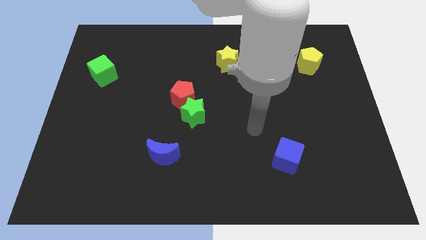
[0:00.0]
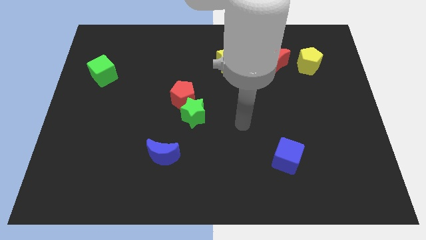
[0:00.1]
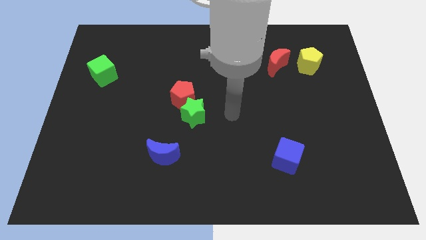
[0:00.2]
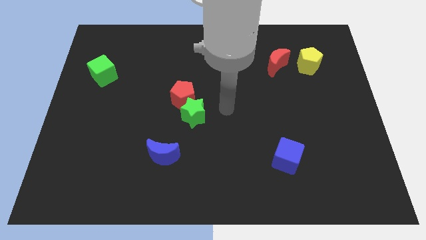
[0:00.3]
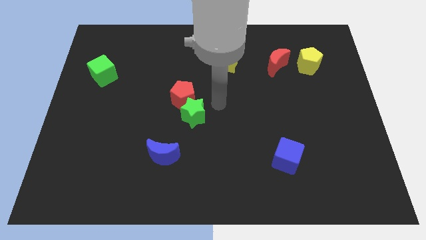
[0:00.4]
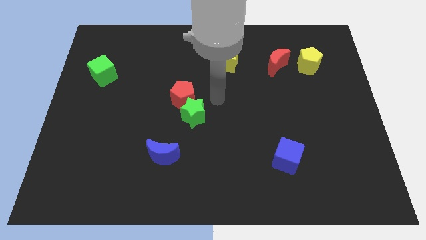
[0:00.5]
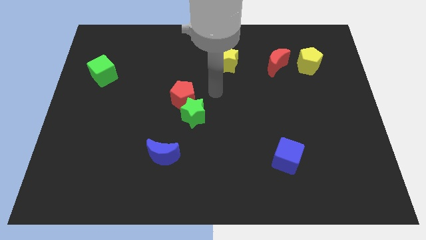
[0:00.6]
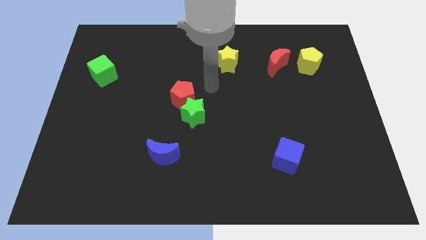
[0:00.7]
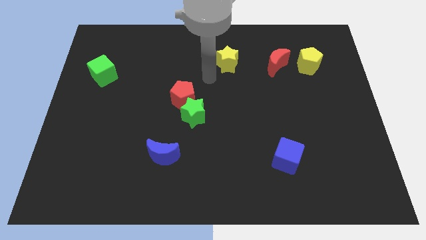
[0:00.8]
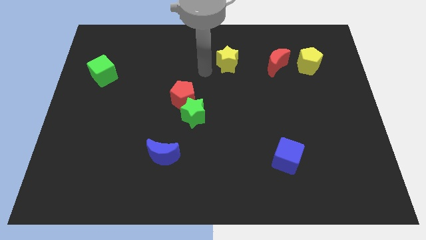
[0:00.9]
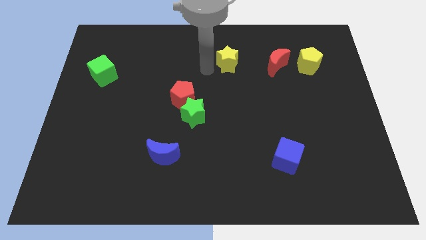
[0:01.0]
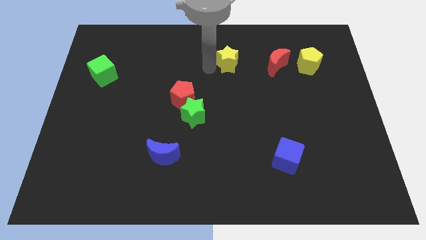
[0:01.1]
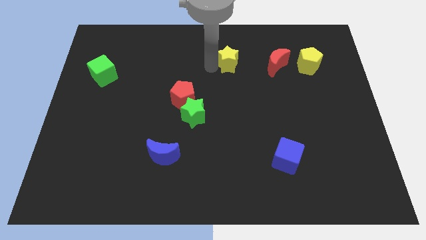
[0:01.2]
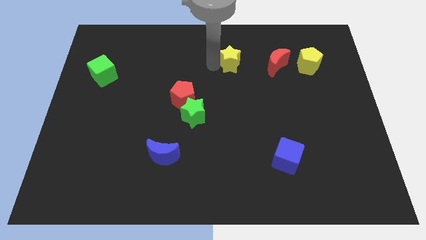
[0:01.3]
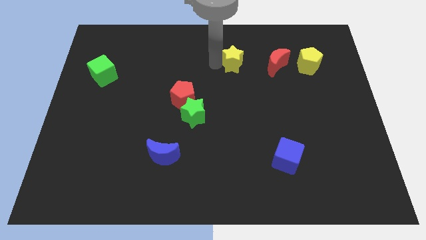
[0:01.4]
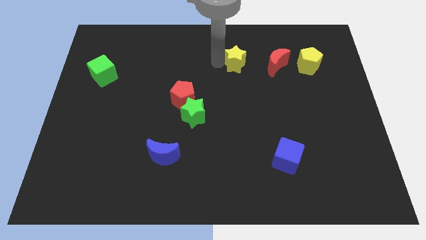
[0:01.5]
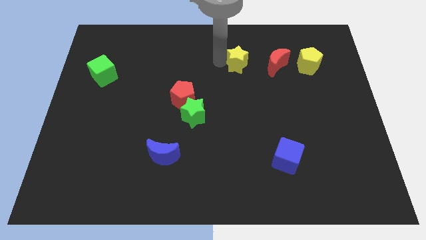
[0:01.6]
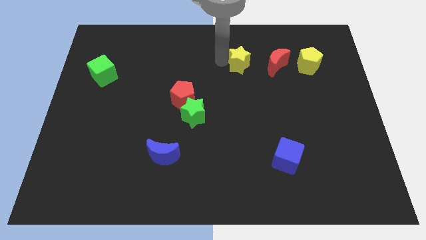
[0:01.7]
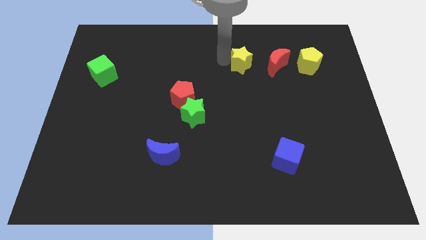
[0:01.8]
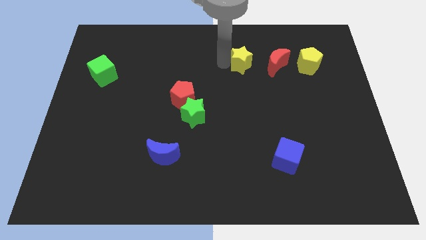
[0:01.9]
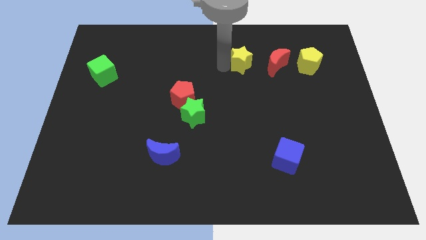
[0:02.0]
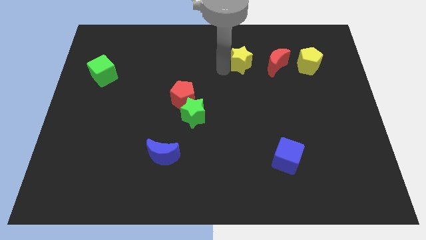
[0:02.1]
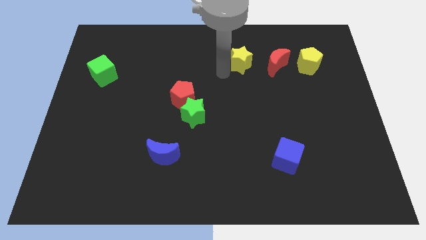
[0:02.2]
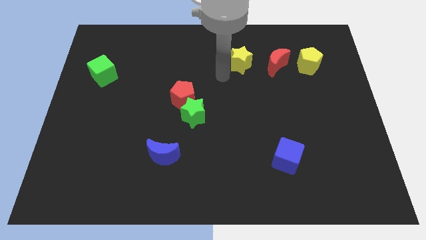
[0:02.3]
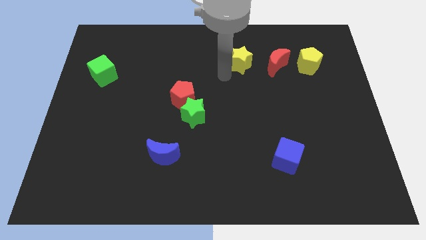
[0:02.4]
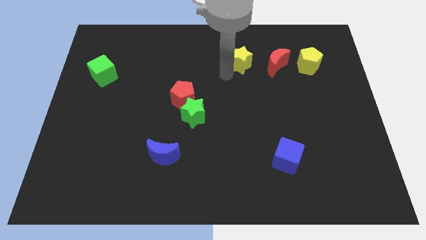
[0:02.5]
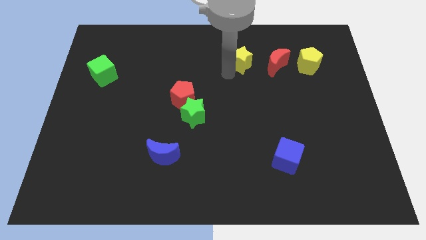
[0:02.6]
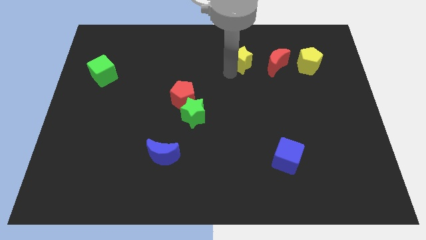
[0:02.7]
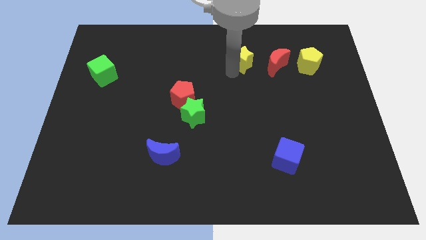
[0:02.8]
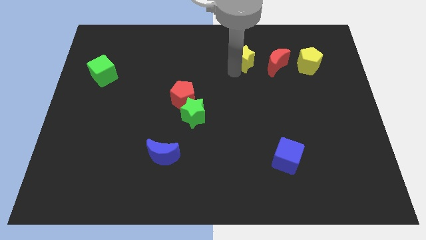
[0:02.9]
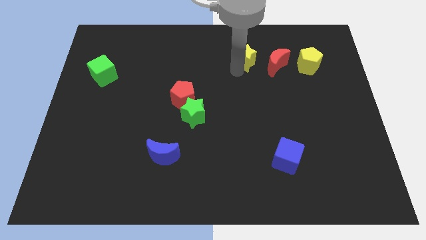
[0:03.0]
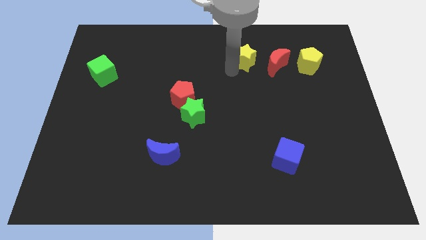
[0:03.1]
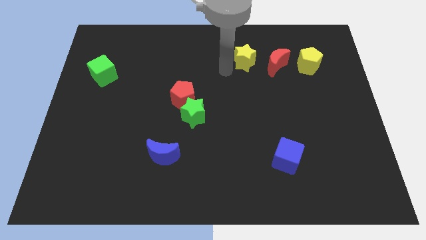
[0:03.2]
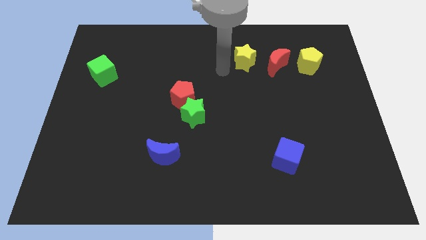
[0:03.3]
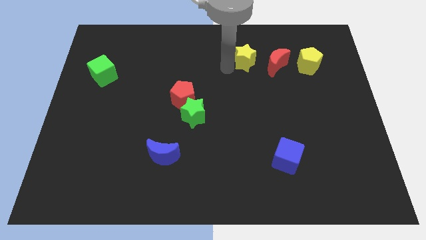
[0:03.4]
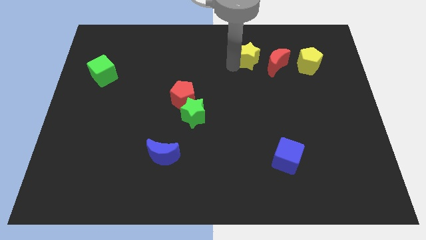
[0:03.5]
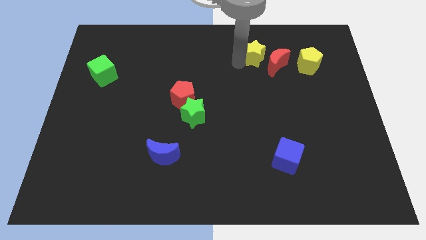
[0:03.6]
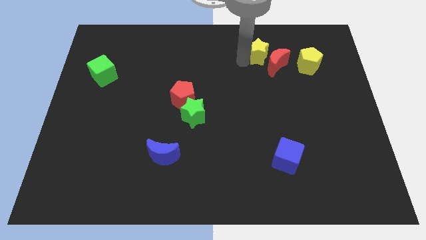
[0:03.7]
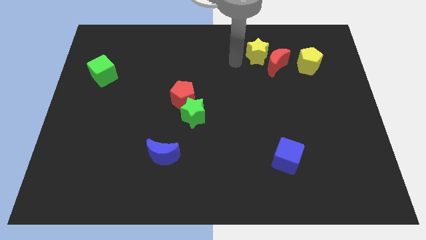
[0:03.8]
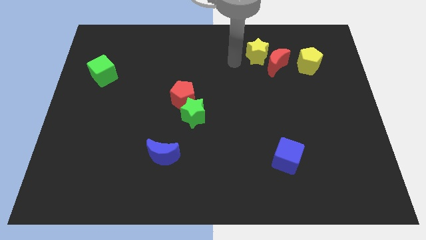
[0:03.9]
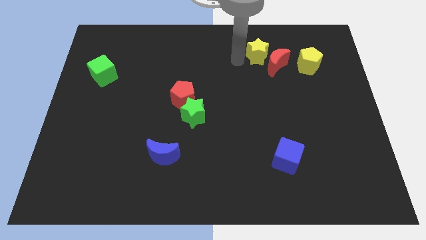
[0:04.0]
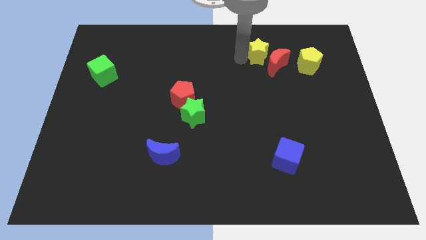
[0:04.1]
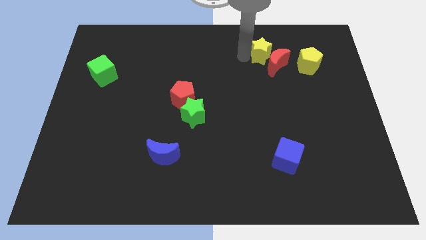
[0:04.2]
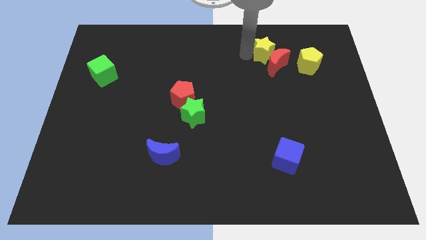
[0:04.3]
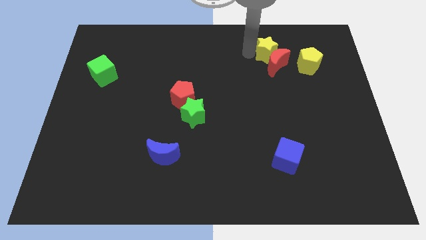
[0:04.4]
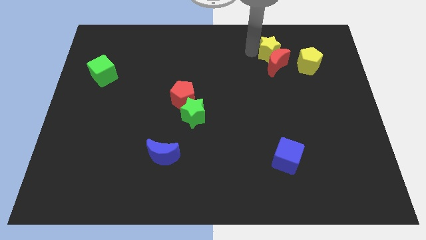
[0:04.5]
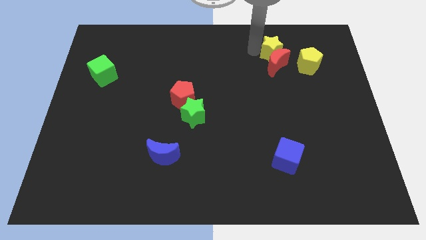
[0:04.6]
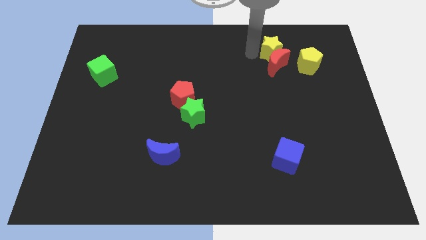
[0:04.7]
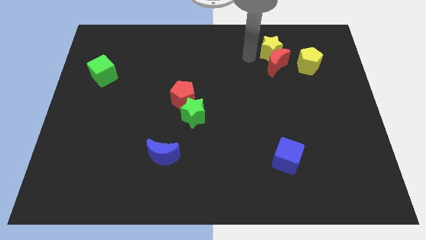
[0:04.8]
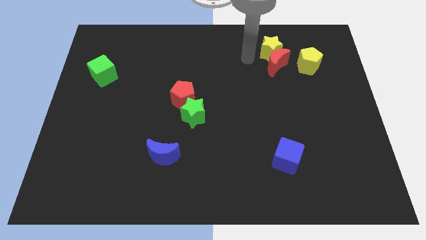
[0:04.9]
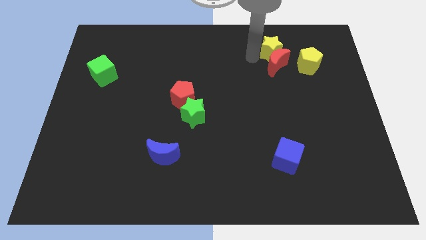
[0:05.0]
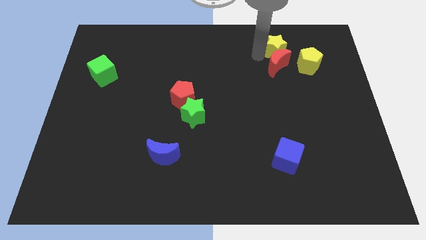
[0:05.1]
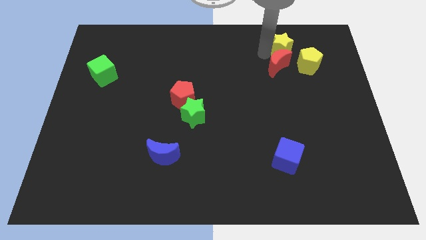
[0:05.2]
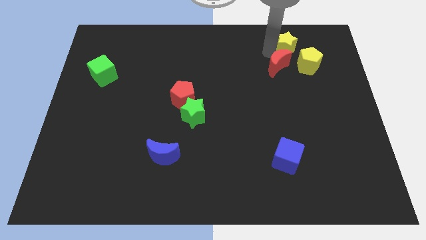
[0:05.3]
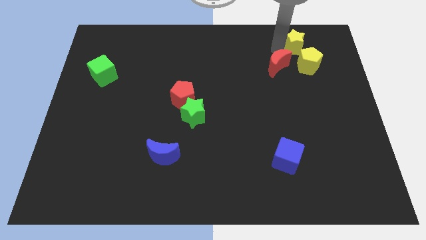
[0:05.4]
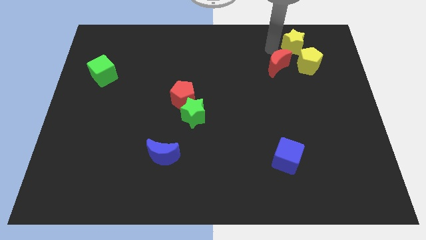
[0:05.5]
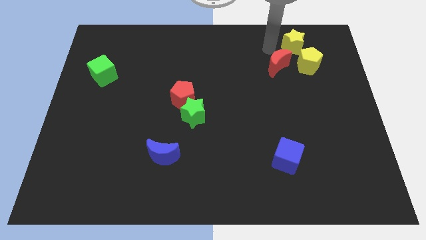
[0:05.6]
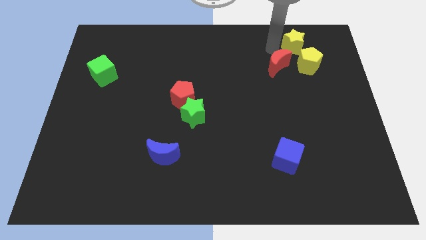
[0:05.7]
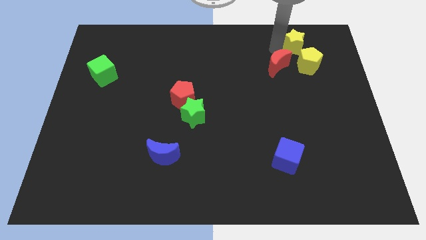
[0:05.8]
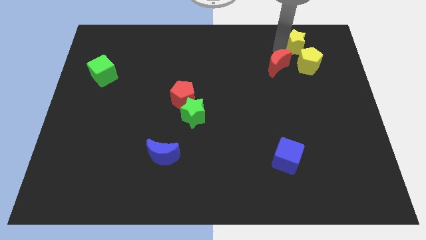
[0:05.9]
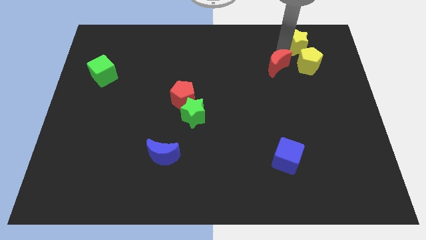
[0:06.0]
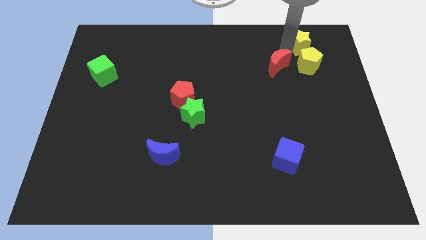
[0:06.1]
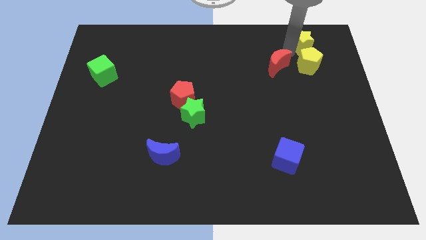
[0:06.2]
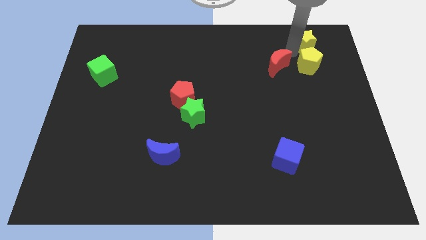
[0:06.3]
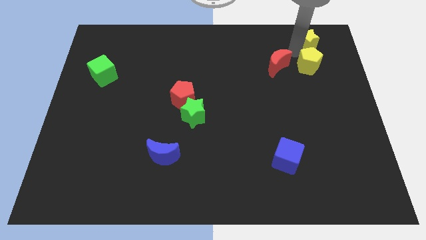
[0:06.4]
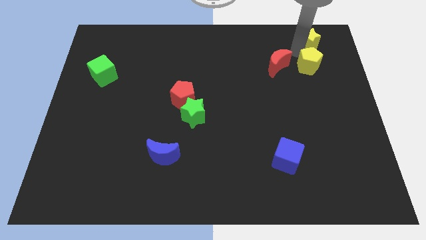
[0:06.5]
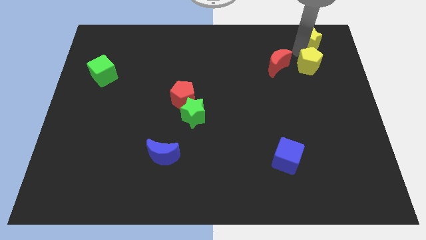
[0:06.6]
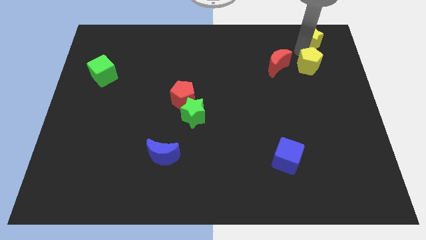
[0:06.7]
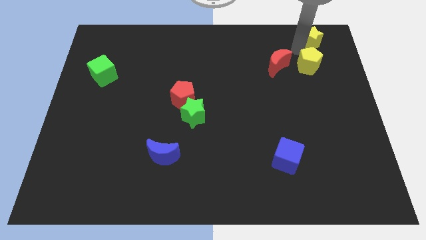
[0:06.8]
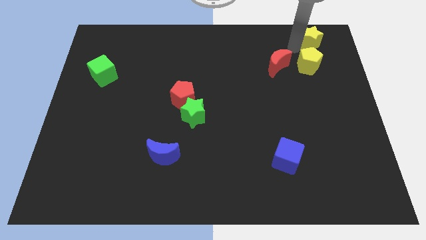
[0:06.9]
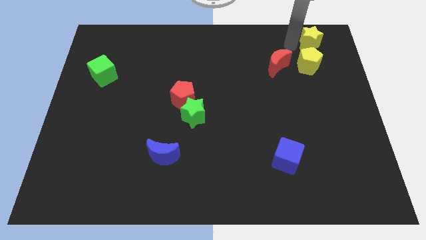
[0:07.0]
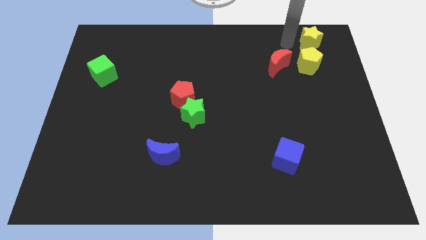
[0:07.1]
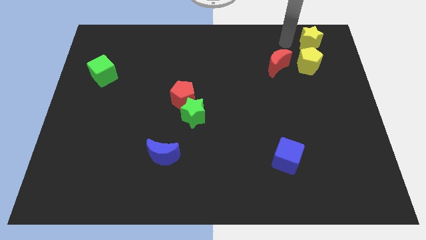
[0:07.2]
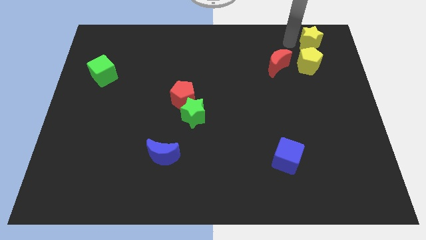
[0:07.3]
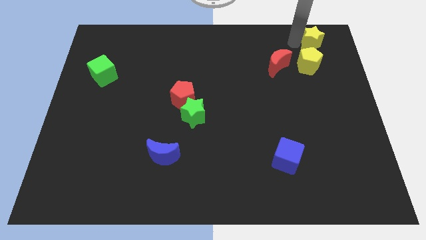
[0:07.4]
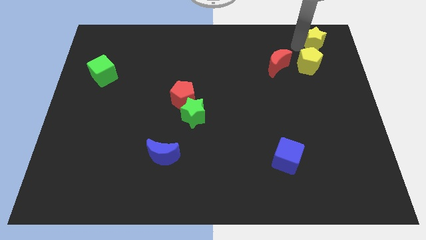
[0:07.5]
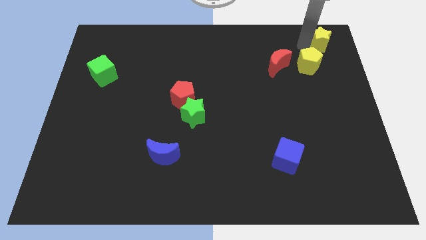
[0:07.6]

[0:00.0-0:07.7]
push the yellow star to the top right
